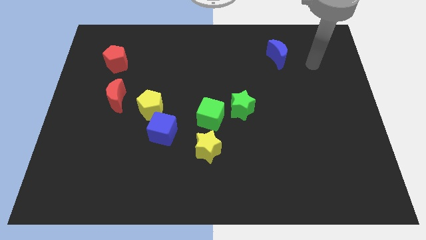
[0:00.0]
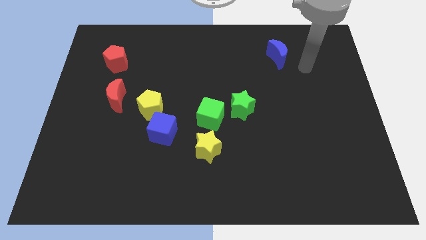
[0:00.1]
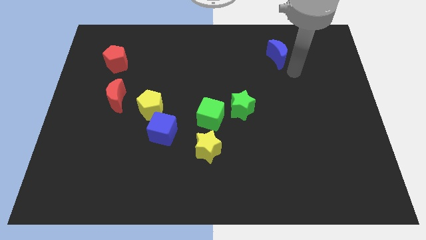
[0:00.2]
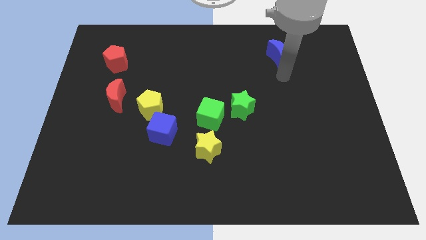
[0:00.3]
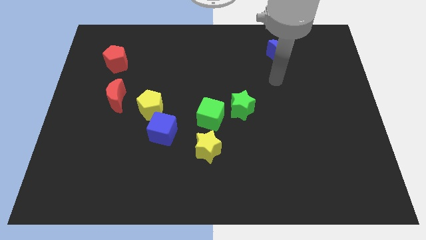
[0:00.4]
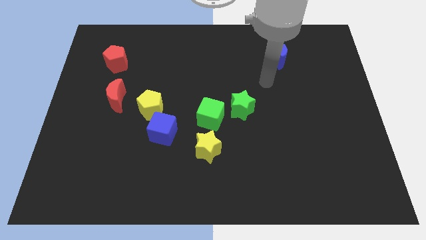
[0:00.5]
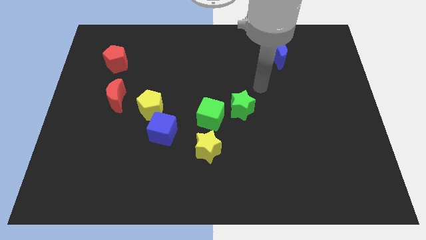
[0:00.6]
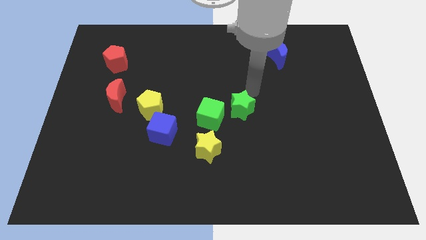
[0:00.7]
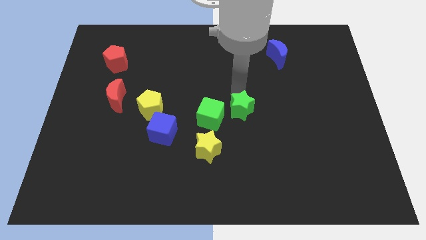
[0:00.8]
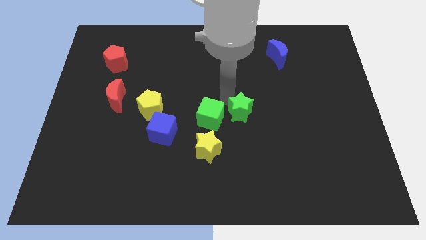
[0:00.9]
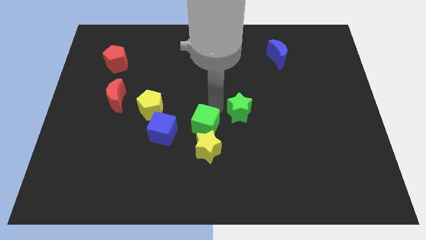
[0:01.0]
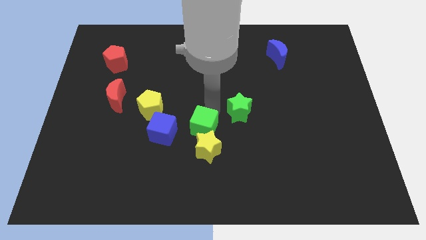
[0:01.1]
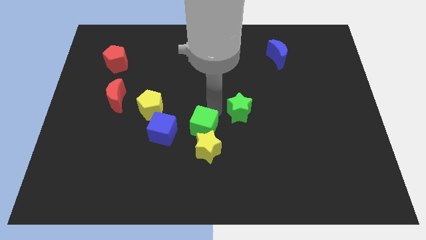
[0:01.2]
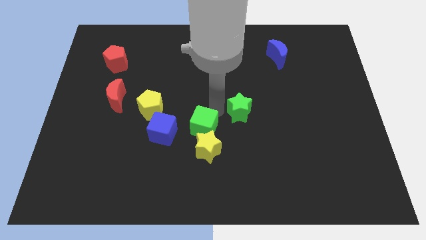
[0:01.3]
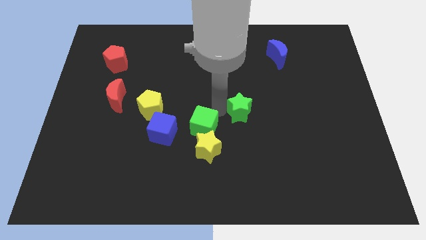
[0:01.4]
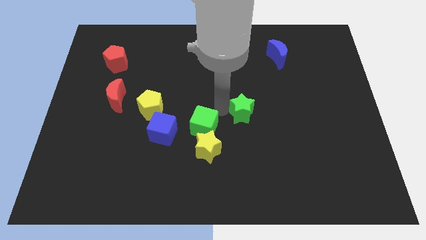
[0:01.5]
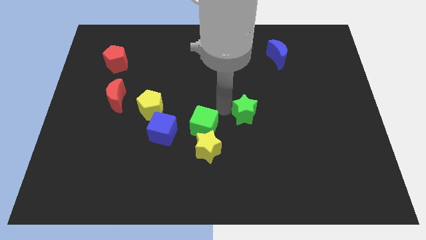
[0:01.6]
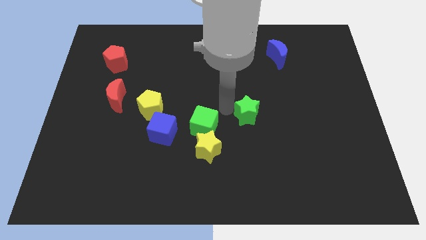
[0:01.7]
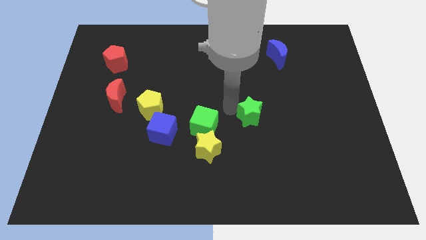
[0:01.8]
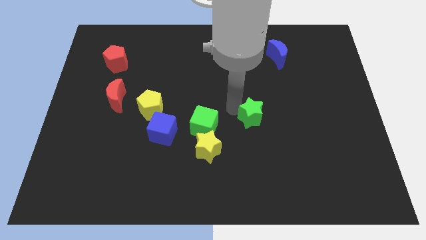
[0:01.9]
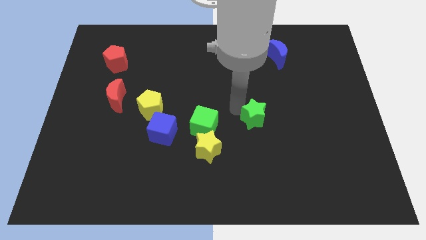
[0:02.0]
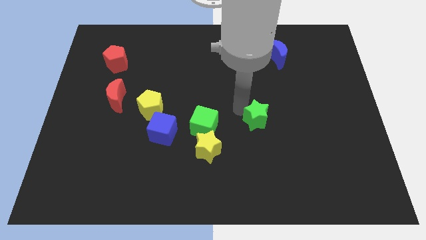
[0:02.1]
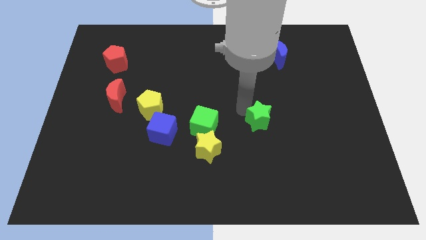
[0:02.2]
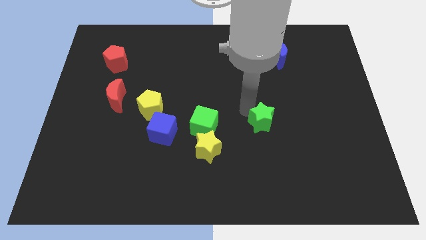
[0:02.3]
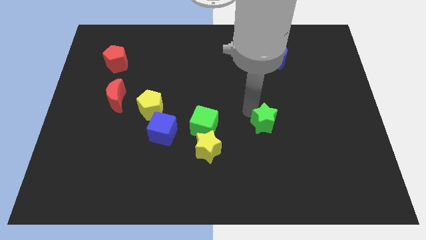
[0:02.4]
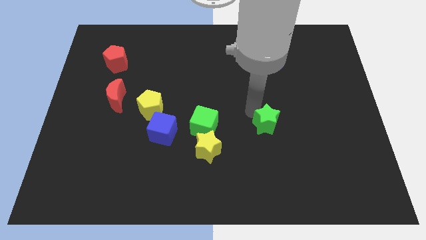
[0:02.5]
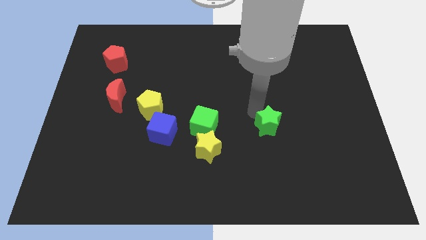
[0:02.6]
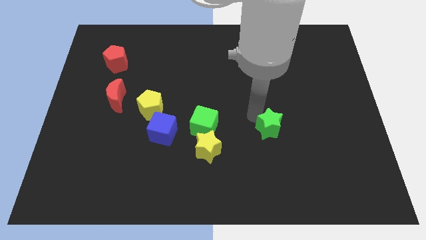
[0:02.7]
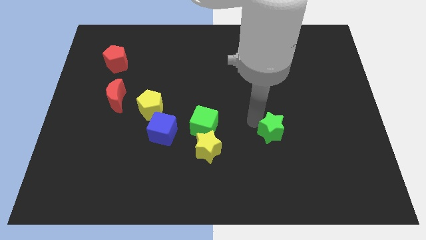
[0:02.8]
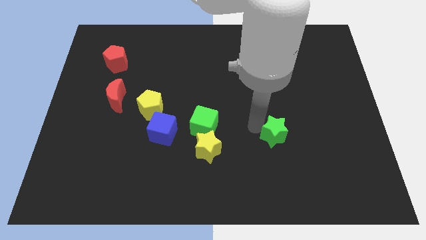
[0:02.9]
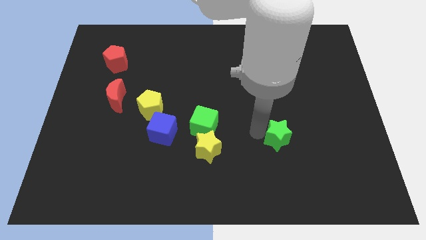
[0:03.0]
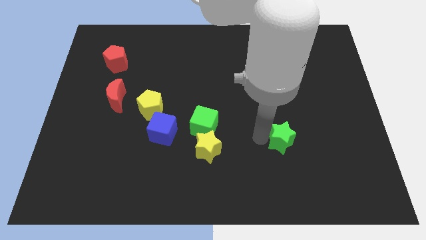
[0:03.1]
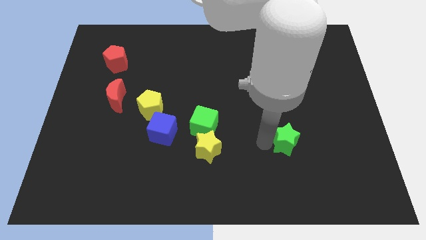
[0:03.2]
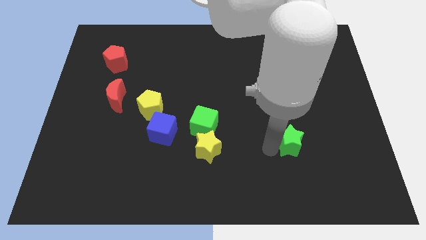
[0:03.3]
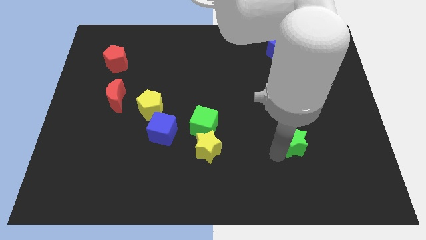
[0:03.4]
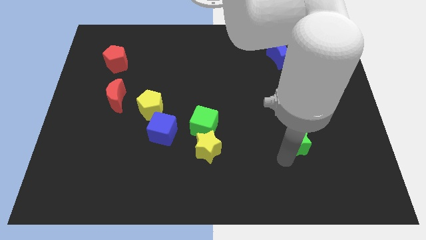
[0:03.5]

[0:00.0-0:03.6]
push the green star somewhat to the right

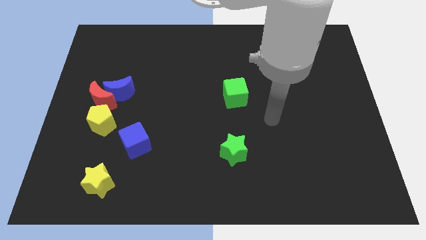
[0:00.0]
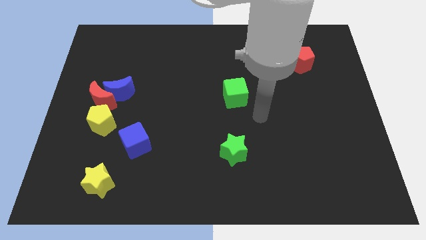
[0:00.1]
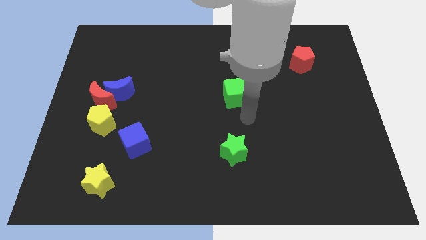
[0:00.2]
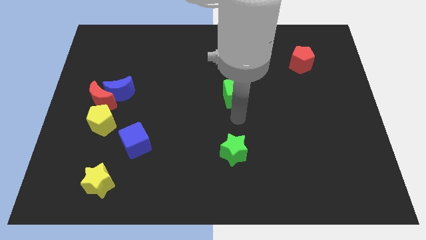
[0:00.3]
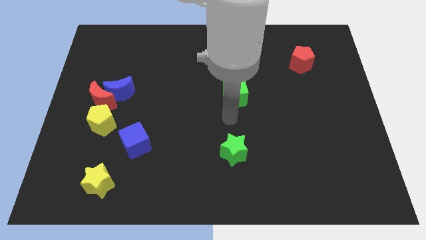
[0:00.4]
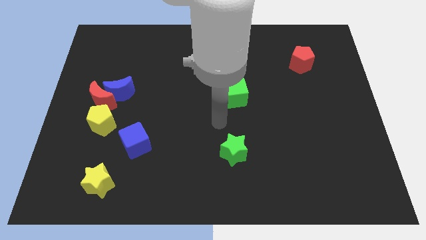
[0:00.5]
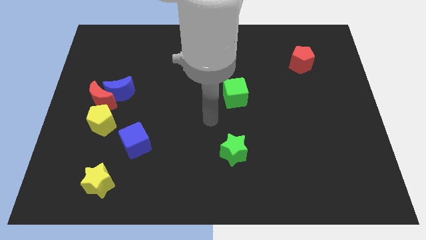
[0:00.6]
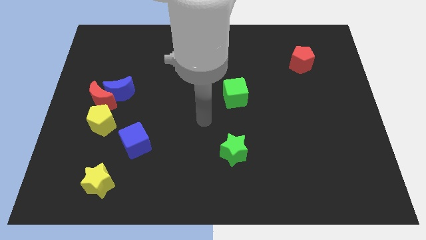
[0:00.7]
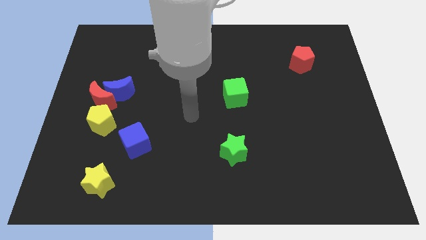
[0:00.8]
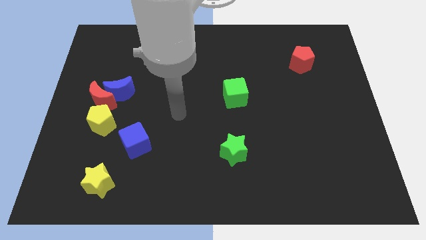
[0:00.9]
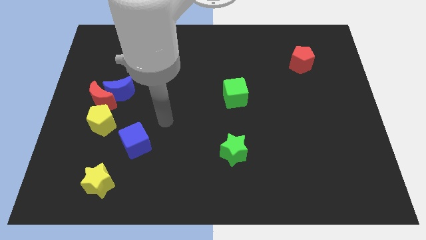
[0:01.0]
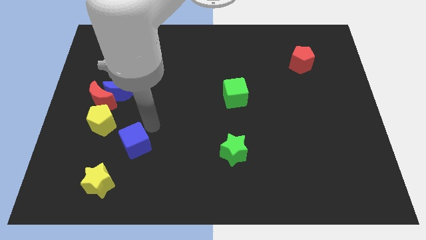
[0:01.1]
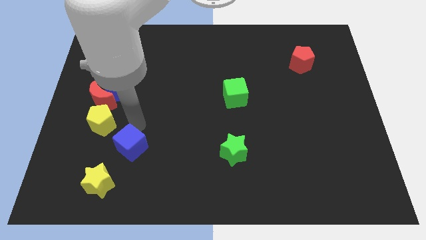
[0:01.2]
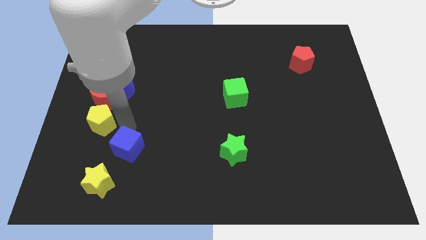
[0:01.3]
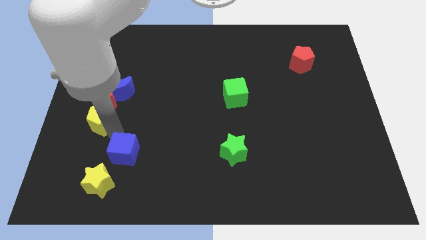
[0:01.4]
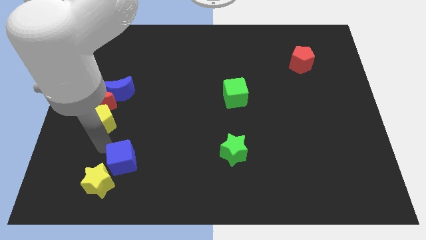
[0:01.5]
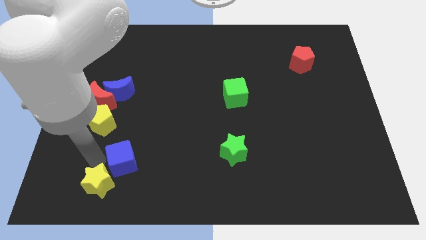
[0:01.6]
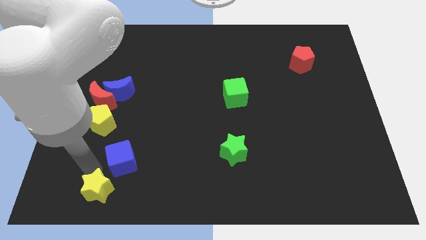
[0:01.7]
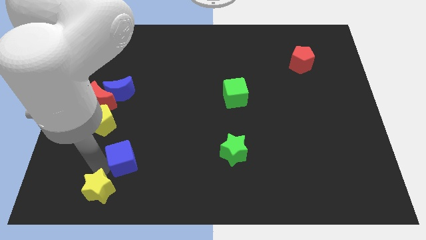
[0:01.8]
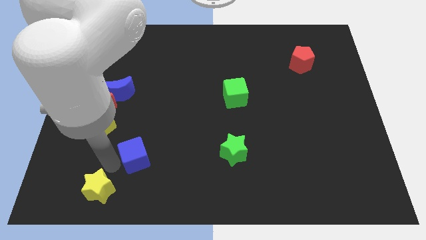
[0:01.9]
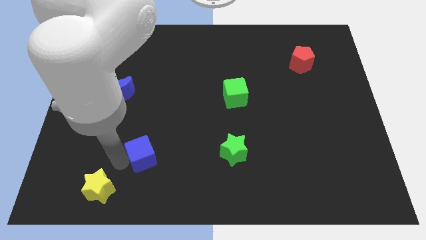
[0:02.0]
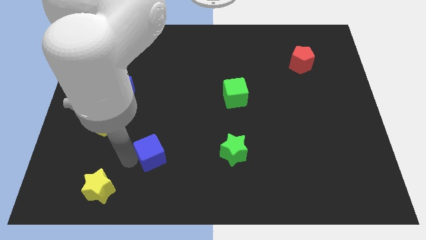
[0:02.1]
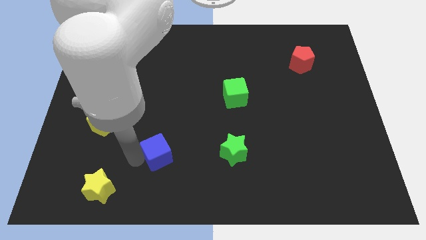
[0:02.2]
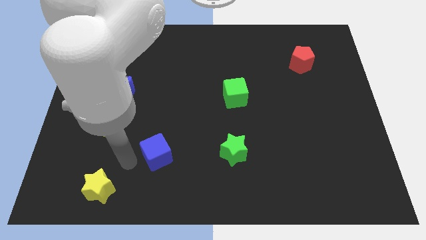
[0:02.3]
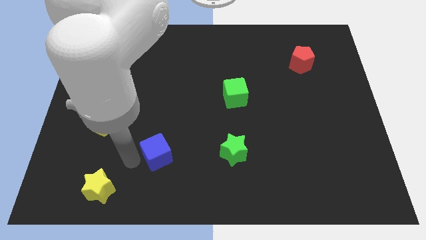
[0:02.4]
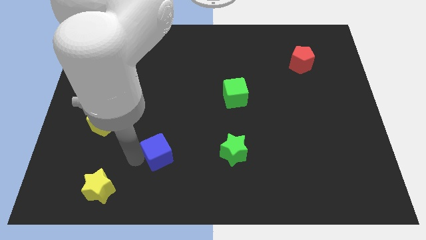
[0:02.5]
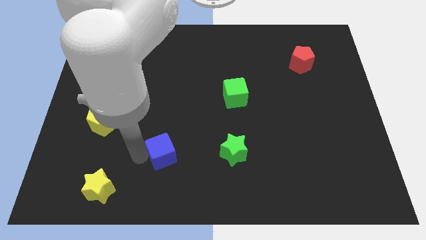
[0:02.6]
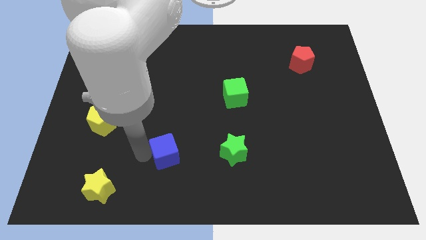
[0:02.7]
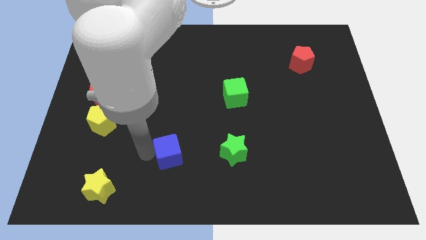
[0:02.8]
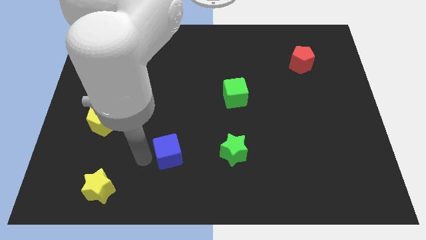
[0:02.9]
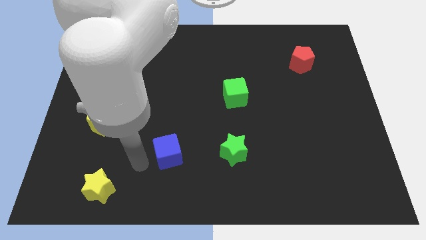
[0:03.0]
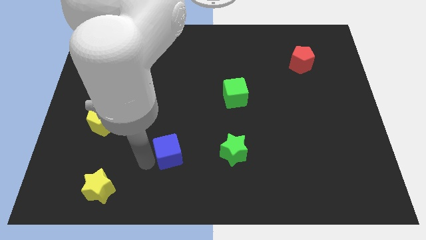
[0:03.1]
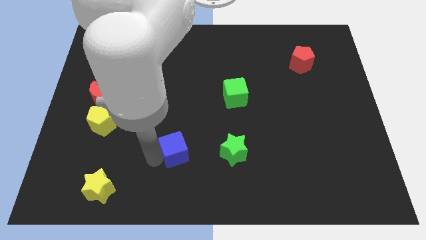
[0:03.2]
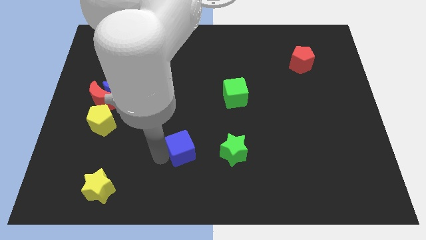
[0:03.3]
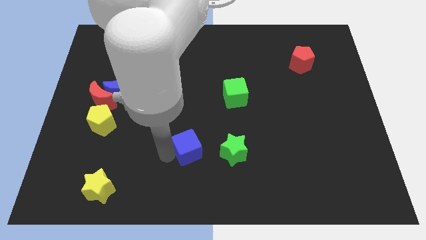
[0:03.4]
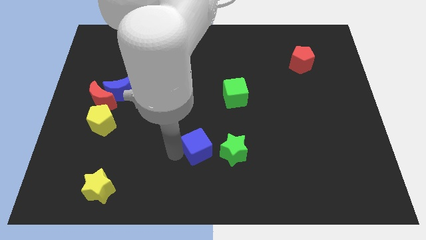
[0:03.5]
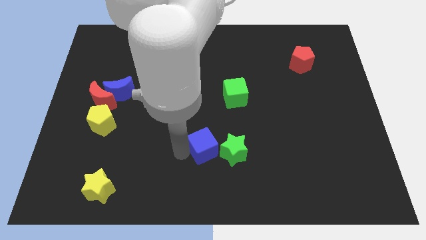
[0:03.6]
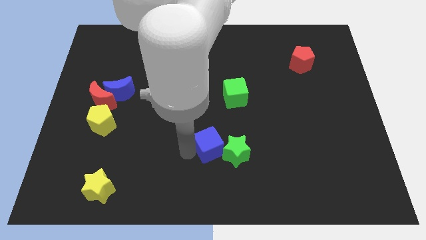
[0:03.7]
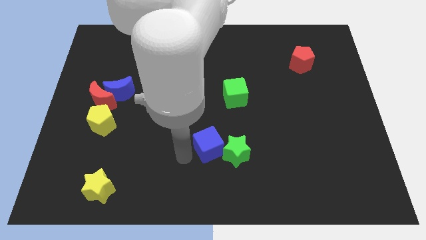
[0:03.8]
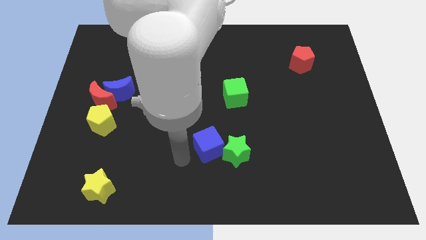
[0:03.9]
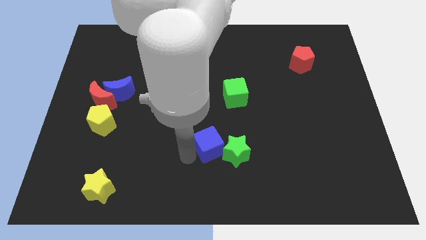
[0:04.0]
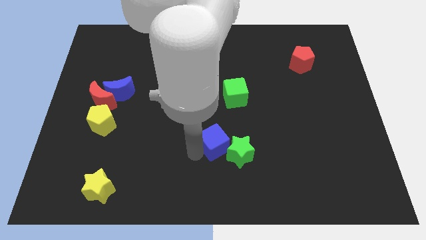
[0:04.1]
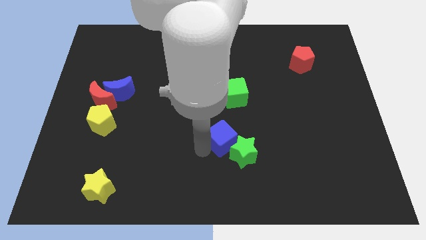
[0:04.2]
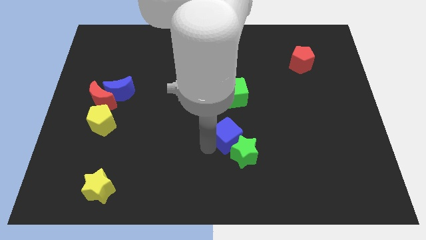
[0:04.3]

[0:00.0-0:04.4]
move the blue cube to the right
